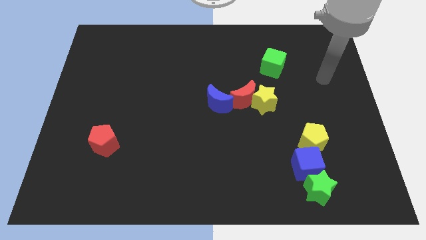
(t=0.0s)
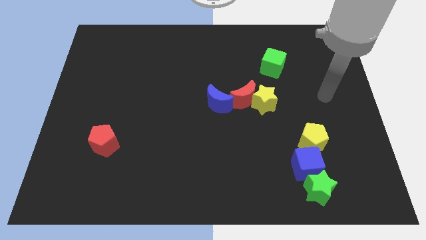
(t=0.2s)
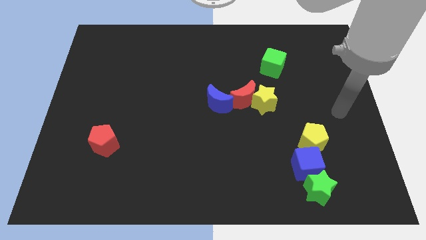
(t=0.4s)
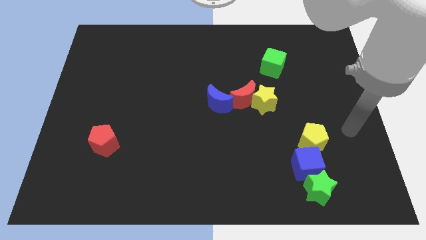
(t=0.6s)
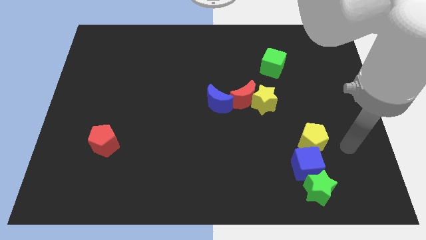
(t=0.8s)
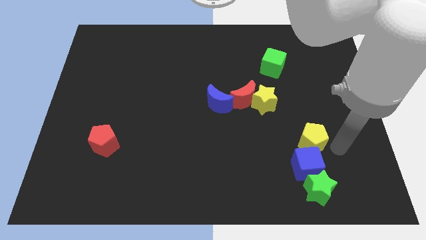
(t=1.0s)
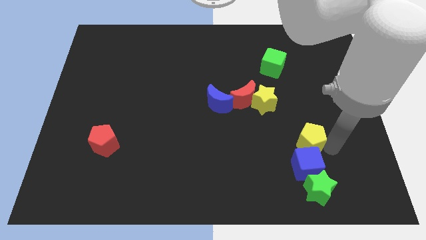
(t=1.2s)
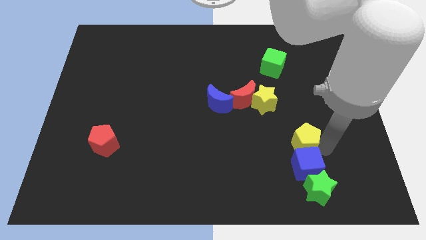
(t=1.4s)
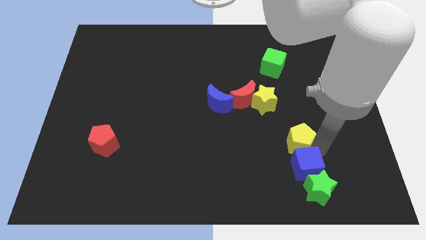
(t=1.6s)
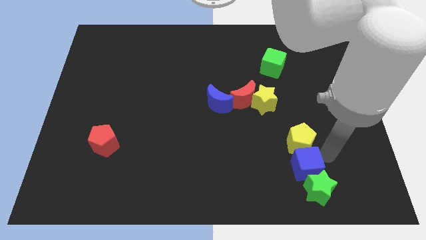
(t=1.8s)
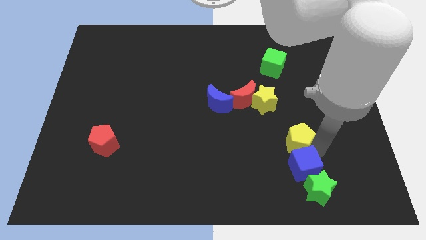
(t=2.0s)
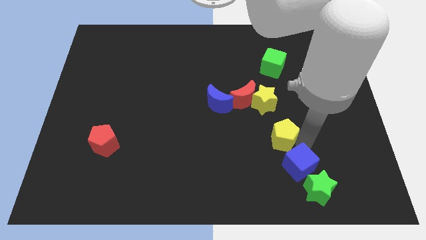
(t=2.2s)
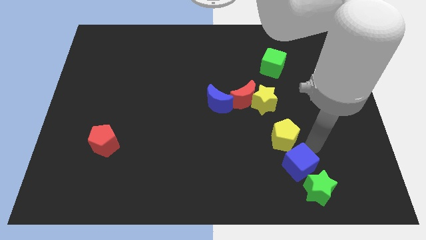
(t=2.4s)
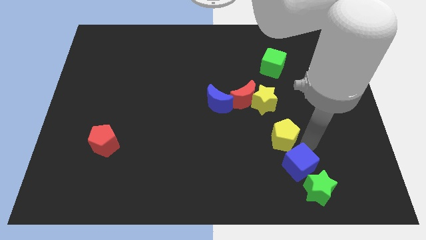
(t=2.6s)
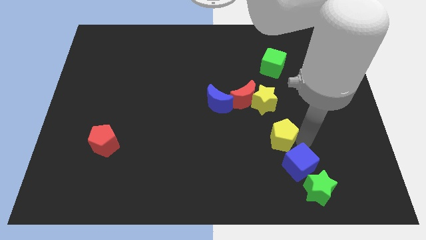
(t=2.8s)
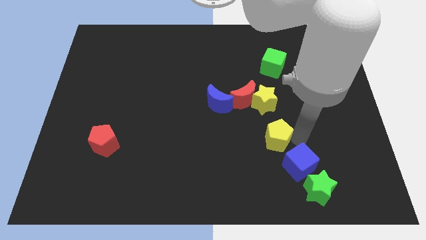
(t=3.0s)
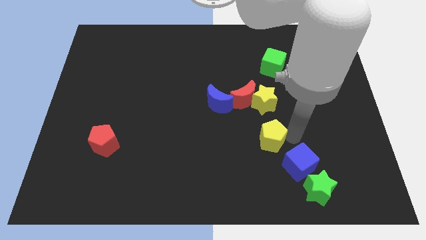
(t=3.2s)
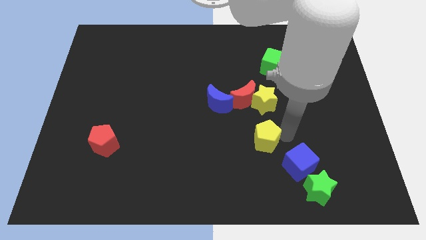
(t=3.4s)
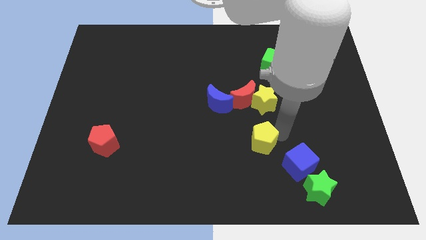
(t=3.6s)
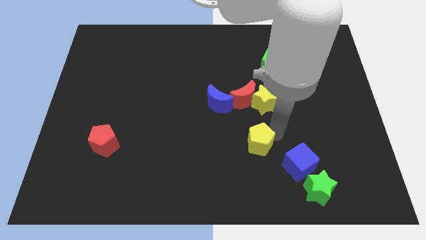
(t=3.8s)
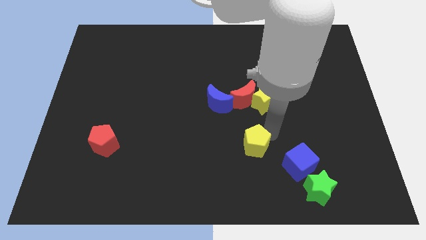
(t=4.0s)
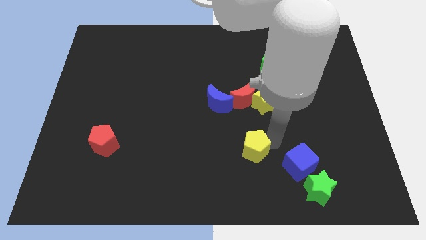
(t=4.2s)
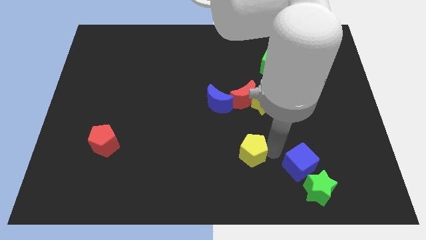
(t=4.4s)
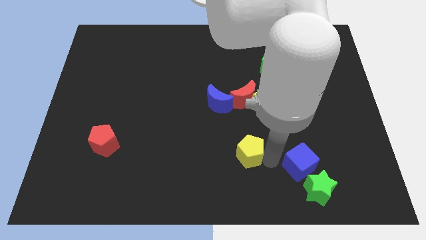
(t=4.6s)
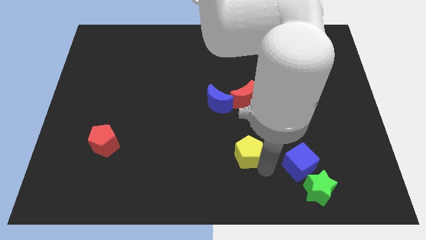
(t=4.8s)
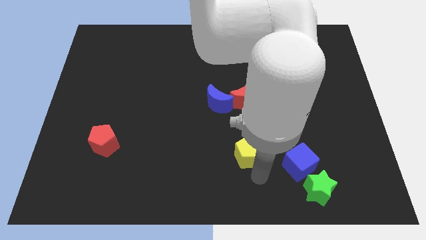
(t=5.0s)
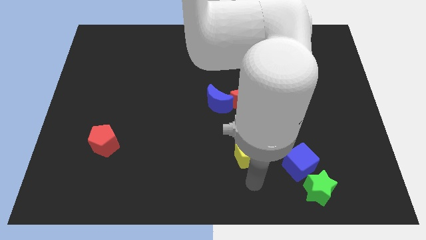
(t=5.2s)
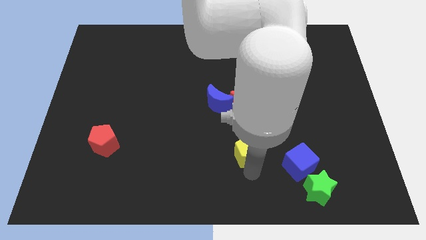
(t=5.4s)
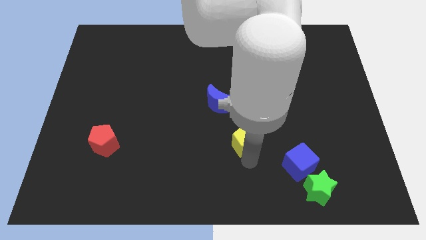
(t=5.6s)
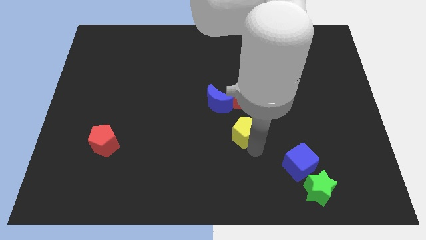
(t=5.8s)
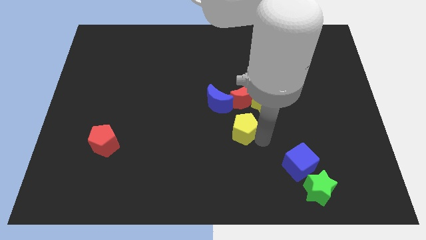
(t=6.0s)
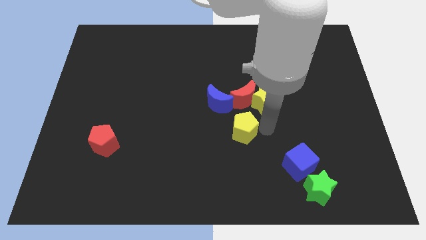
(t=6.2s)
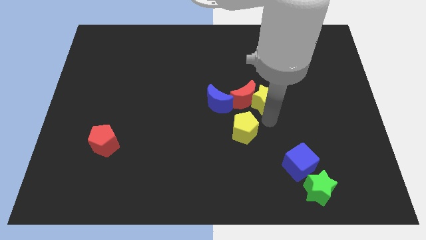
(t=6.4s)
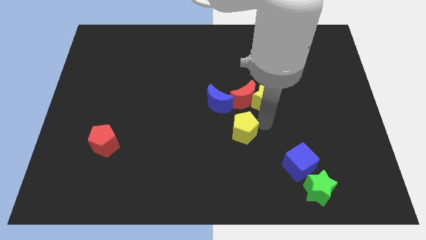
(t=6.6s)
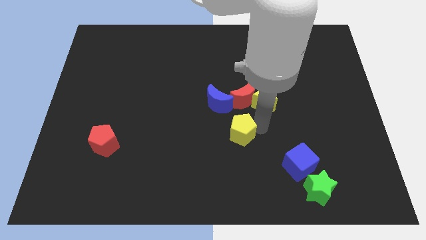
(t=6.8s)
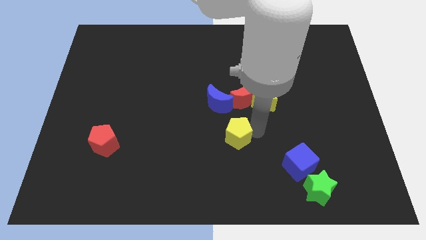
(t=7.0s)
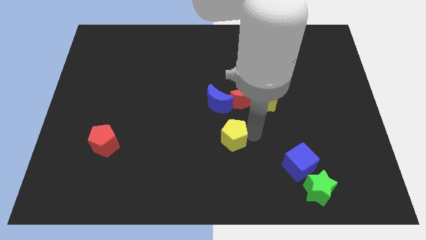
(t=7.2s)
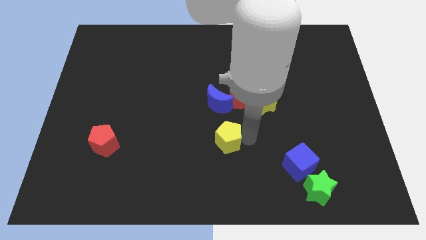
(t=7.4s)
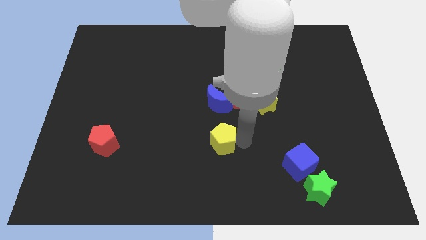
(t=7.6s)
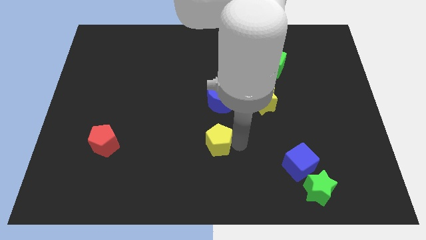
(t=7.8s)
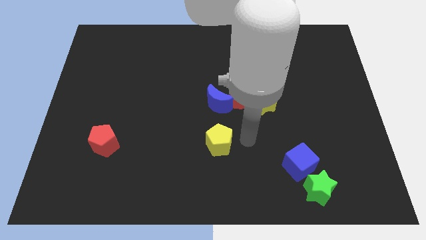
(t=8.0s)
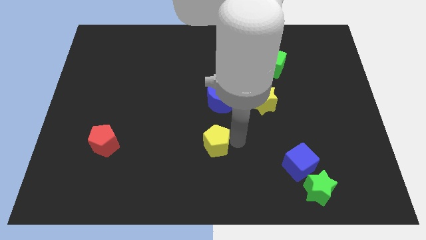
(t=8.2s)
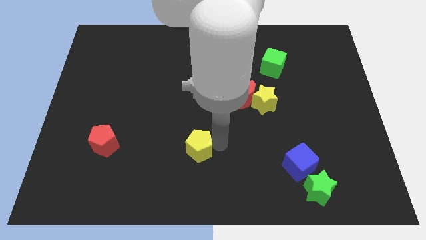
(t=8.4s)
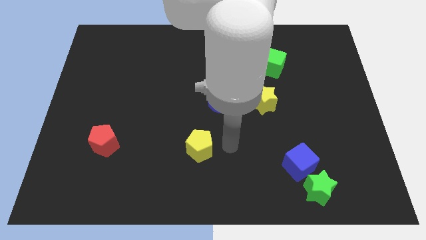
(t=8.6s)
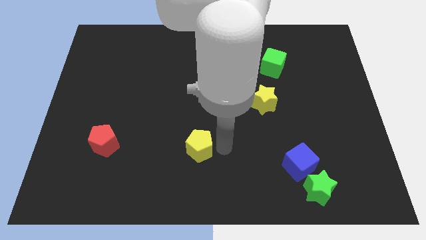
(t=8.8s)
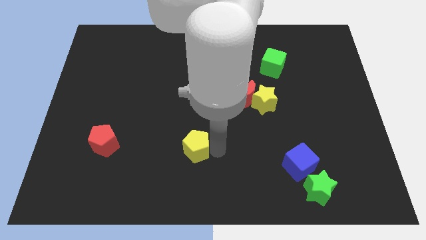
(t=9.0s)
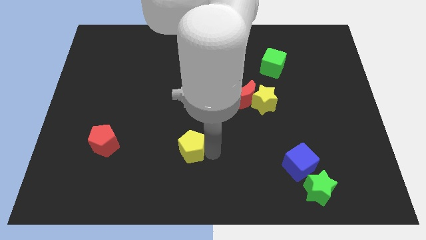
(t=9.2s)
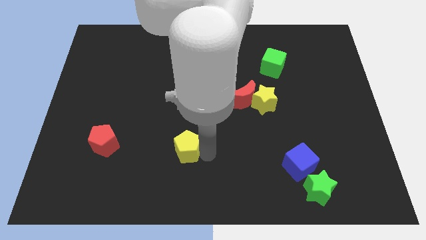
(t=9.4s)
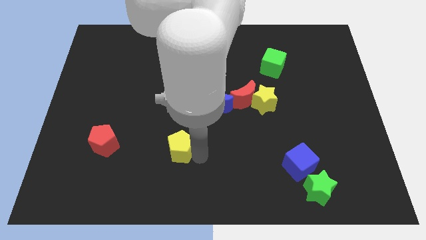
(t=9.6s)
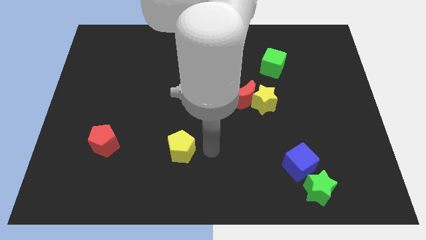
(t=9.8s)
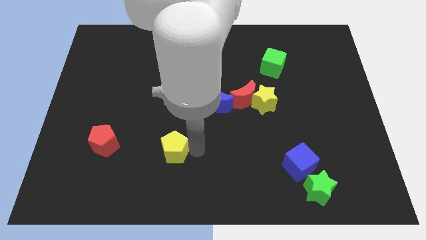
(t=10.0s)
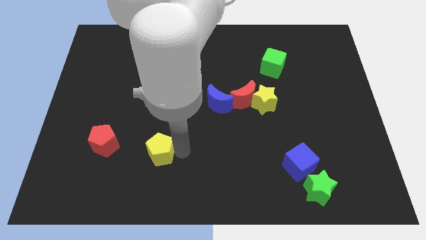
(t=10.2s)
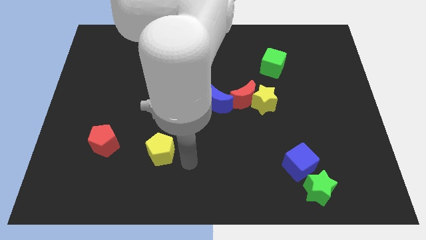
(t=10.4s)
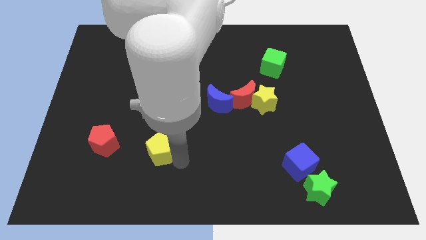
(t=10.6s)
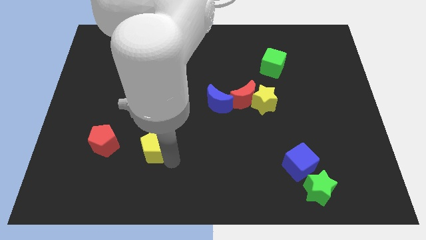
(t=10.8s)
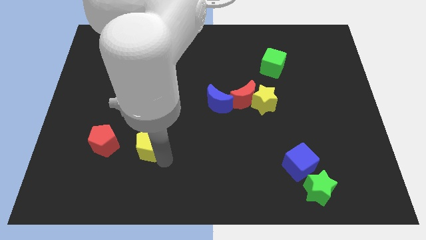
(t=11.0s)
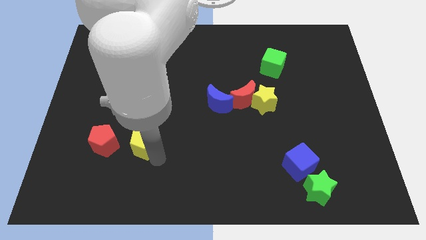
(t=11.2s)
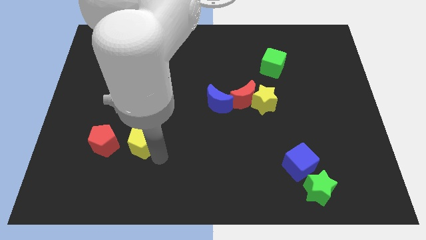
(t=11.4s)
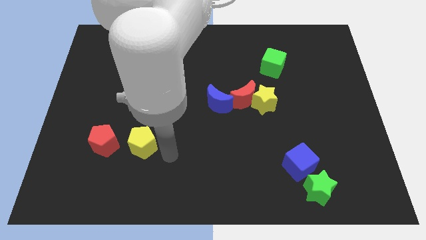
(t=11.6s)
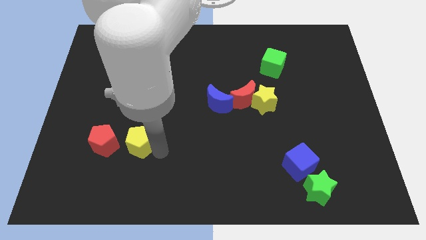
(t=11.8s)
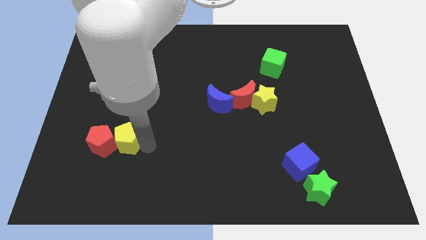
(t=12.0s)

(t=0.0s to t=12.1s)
move the yellow pentagon to the red pentagon

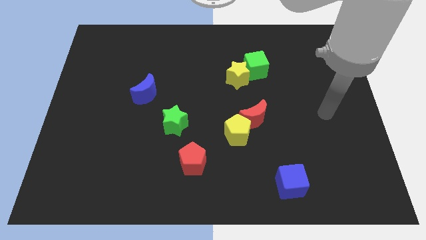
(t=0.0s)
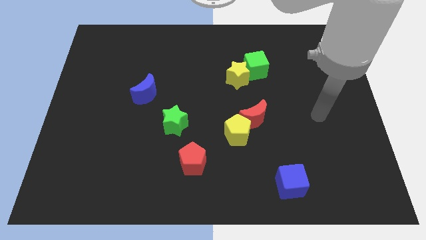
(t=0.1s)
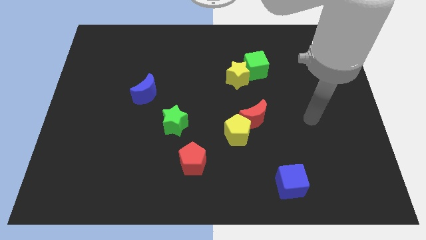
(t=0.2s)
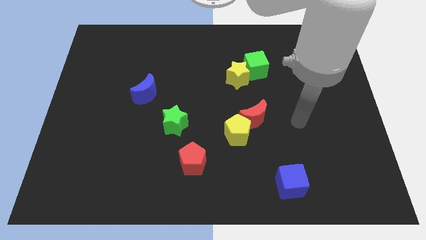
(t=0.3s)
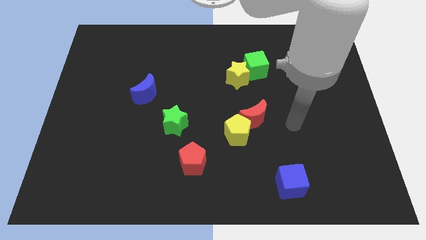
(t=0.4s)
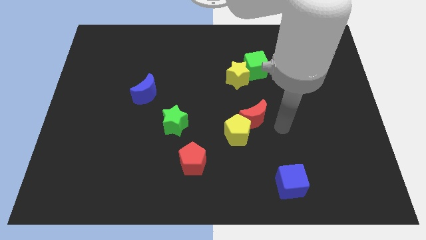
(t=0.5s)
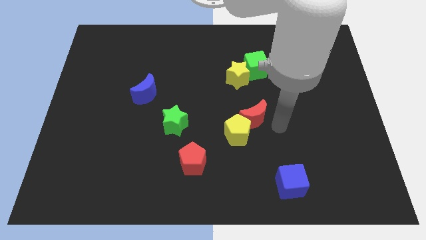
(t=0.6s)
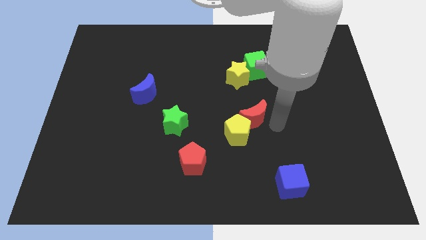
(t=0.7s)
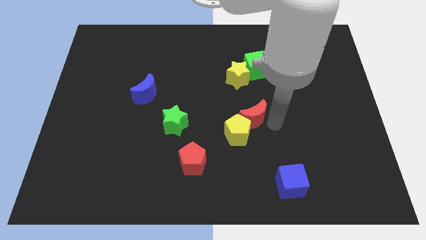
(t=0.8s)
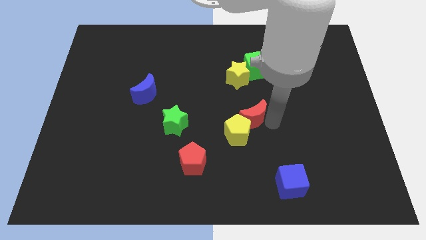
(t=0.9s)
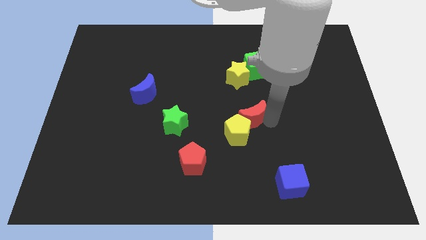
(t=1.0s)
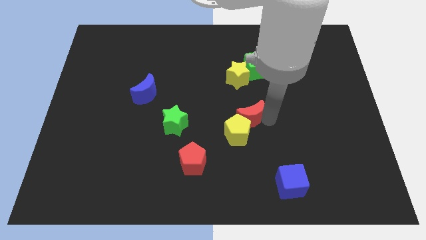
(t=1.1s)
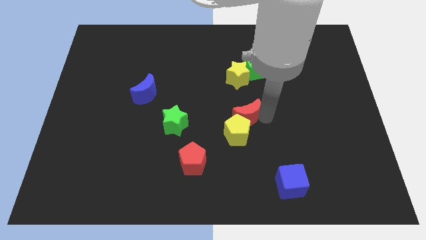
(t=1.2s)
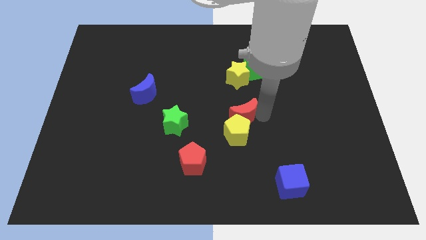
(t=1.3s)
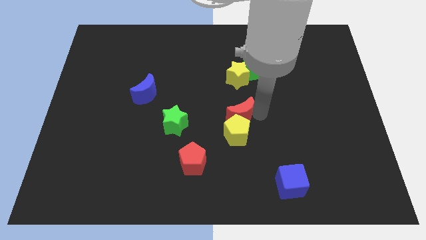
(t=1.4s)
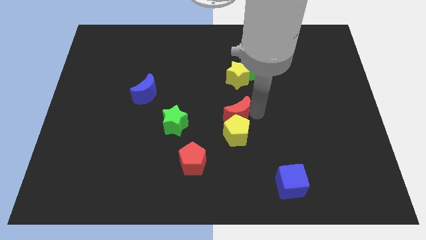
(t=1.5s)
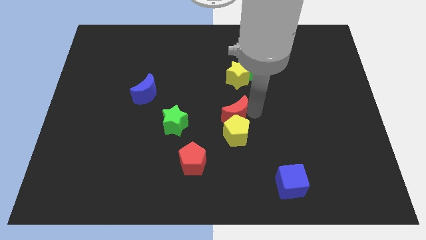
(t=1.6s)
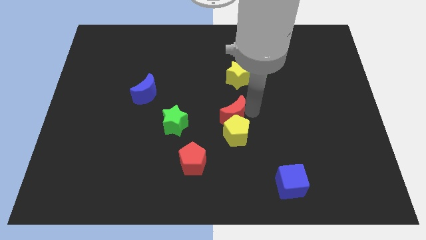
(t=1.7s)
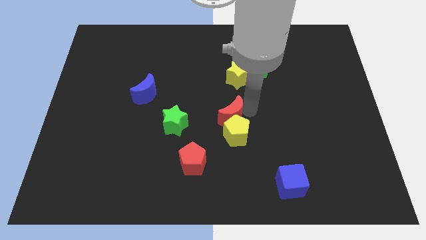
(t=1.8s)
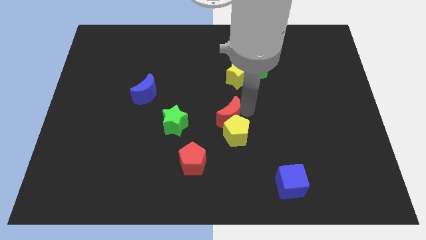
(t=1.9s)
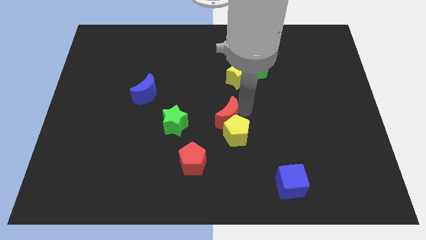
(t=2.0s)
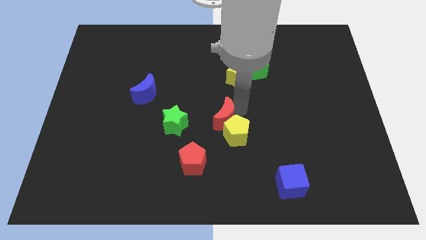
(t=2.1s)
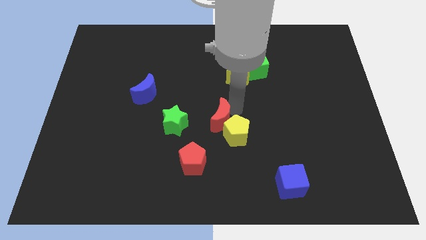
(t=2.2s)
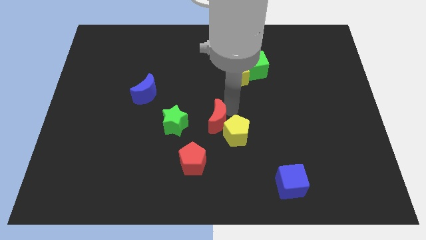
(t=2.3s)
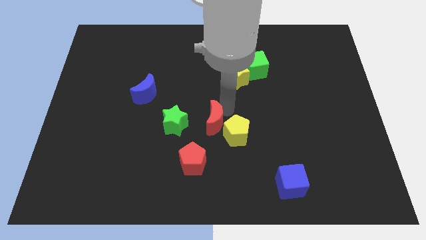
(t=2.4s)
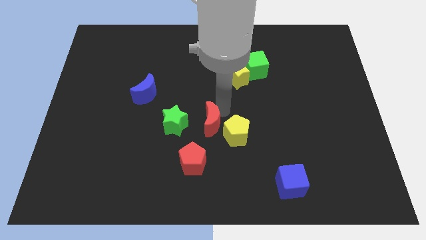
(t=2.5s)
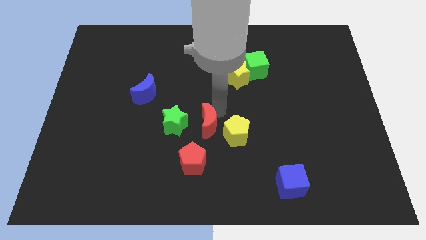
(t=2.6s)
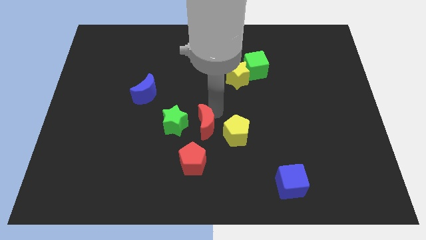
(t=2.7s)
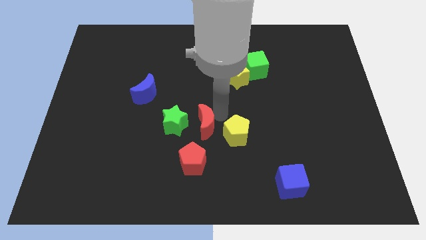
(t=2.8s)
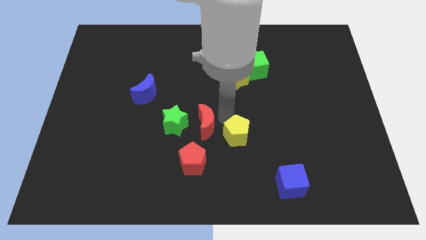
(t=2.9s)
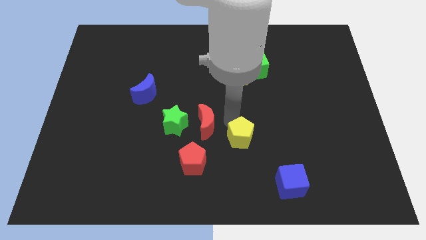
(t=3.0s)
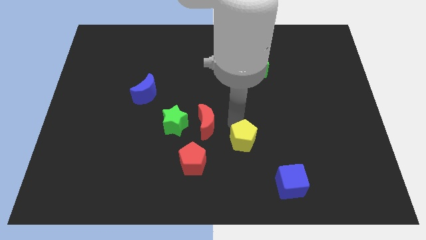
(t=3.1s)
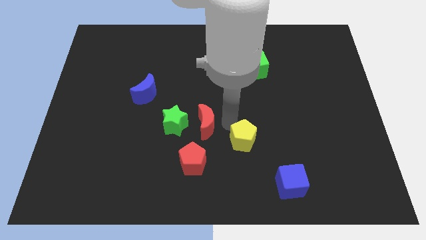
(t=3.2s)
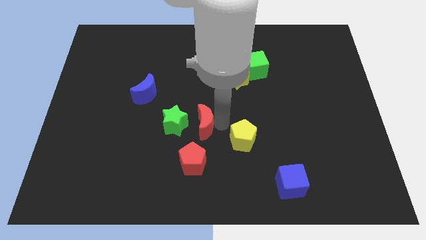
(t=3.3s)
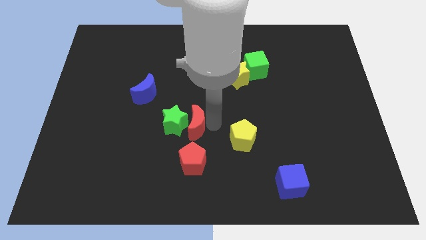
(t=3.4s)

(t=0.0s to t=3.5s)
move the red moon next to the green star
